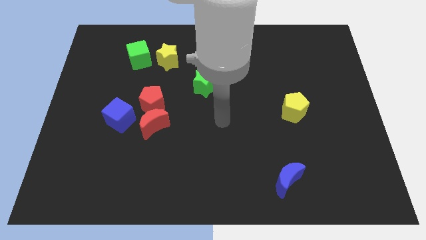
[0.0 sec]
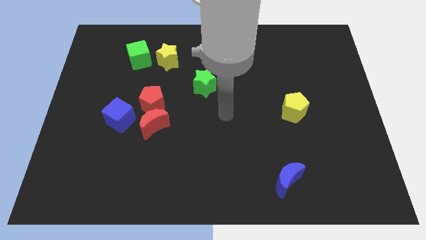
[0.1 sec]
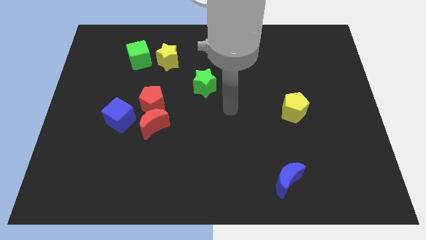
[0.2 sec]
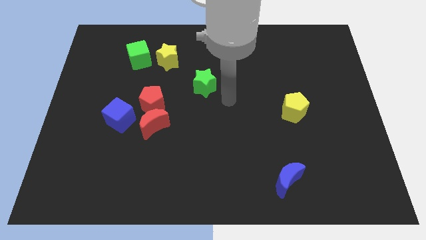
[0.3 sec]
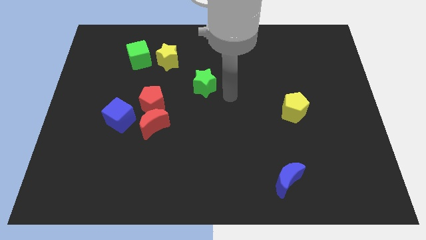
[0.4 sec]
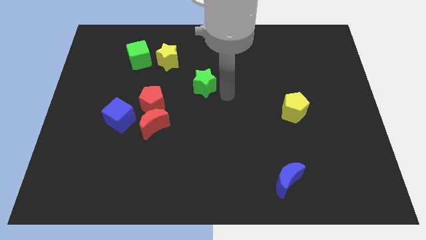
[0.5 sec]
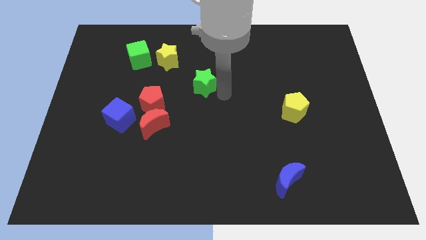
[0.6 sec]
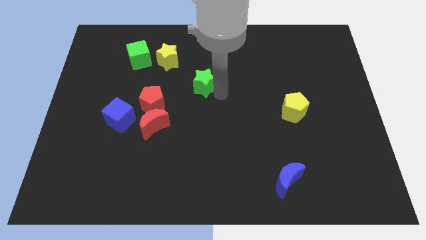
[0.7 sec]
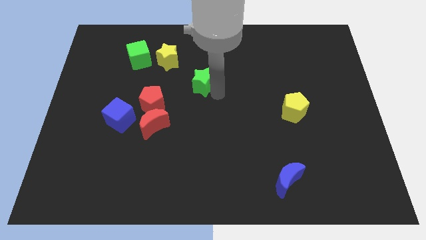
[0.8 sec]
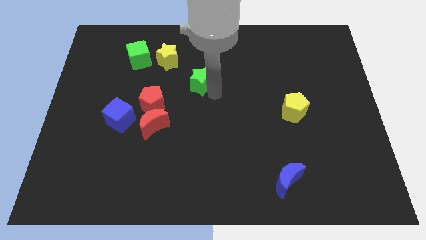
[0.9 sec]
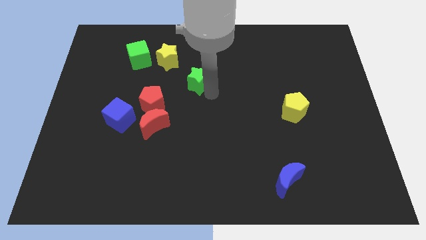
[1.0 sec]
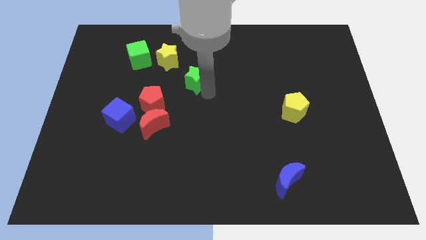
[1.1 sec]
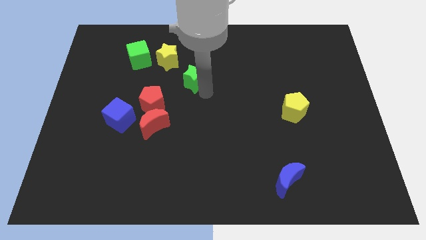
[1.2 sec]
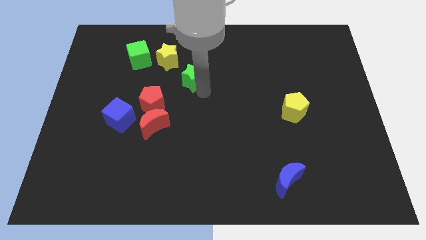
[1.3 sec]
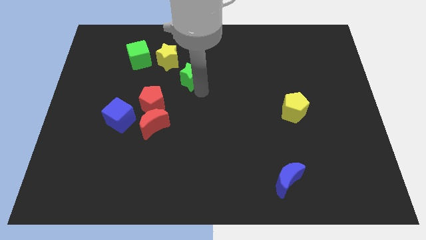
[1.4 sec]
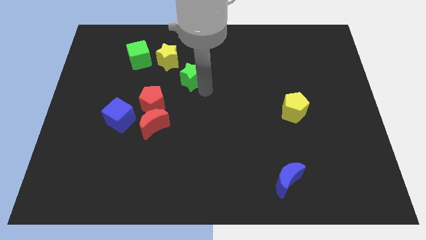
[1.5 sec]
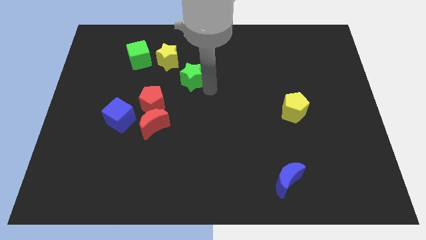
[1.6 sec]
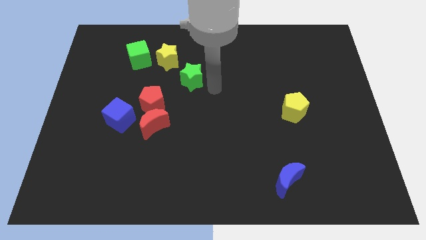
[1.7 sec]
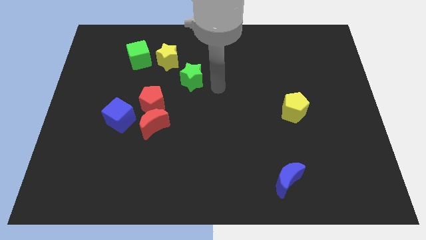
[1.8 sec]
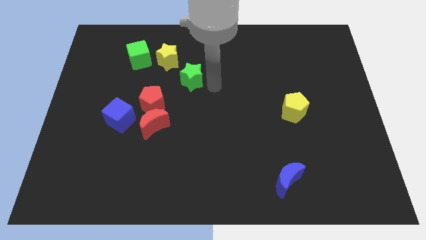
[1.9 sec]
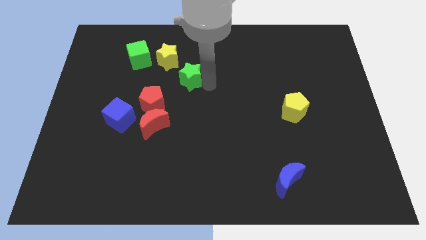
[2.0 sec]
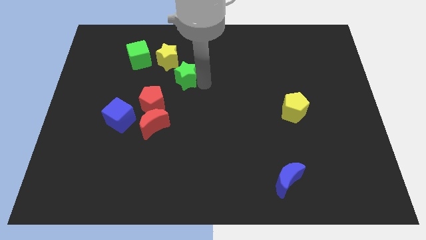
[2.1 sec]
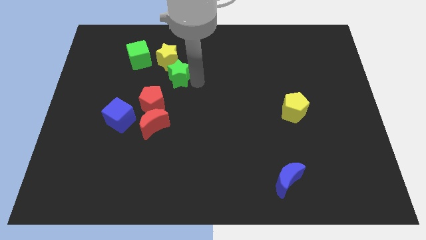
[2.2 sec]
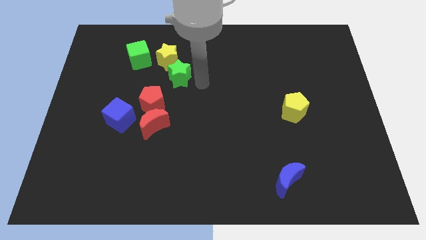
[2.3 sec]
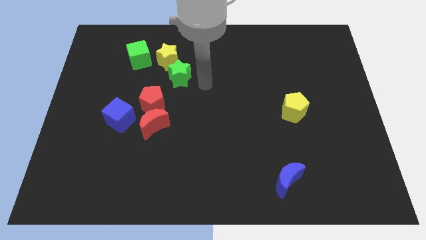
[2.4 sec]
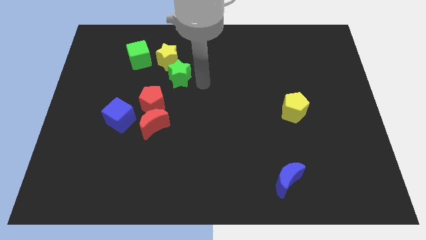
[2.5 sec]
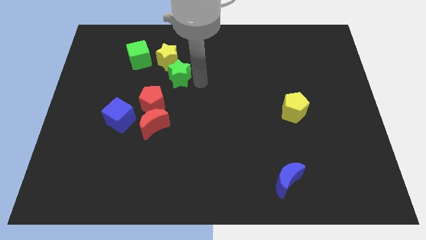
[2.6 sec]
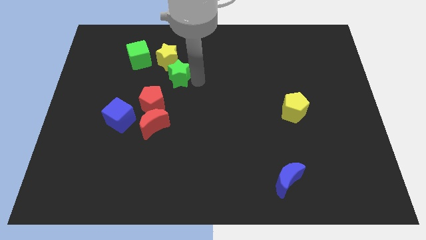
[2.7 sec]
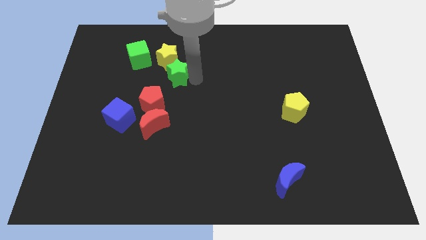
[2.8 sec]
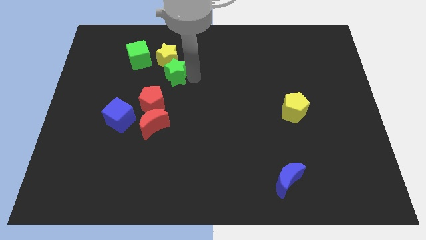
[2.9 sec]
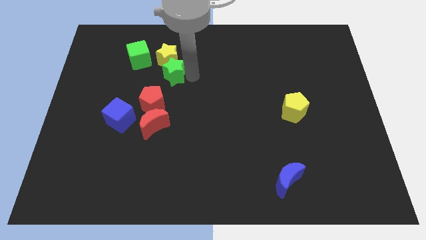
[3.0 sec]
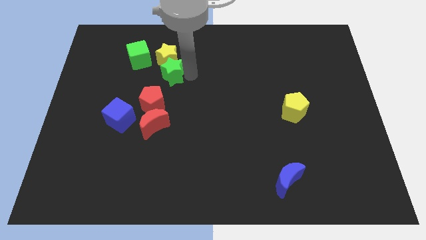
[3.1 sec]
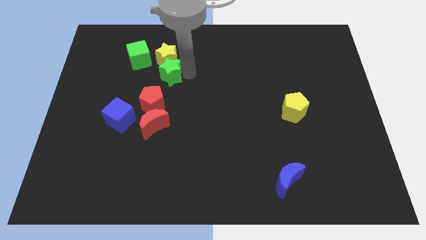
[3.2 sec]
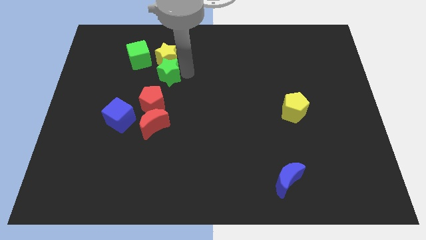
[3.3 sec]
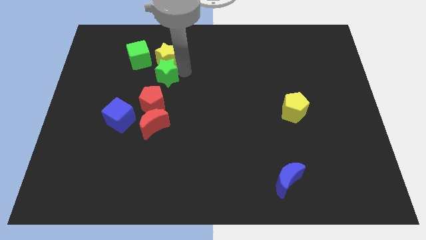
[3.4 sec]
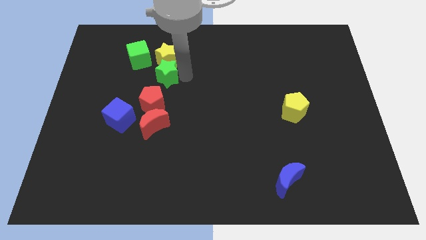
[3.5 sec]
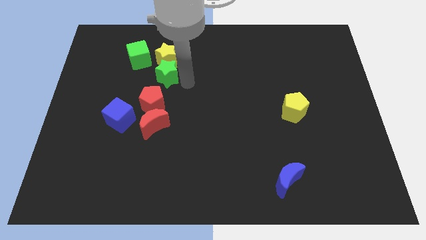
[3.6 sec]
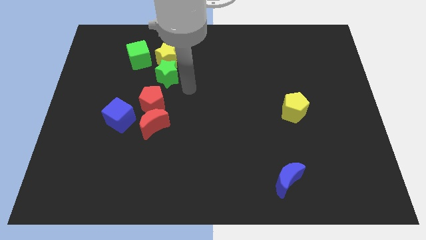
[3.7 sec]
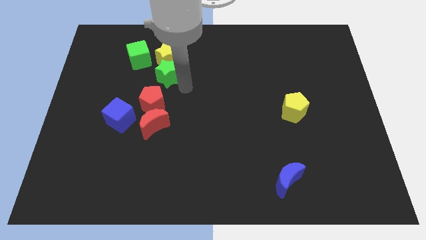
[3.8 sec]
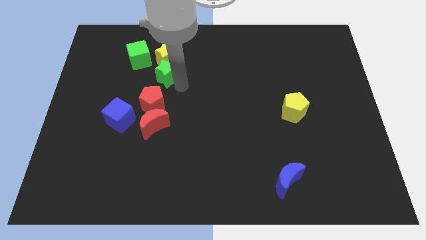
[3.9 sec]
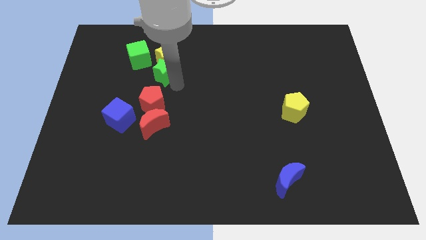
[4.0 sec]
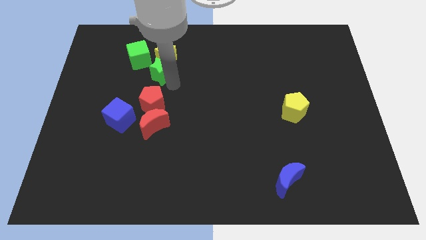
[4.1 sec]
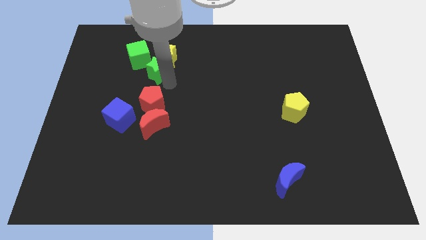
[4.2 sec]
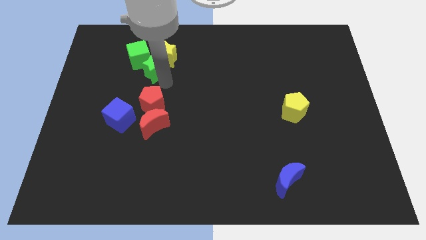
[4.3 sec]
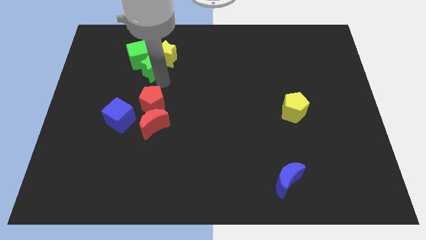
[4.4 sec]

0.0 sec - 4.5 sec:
slide the green star to the green cube

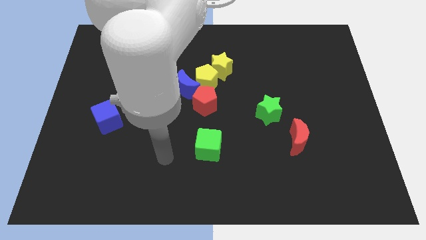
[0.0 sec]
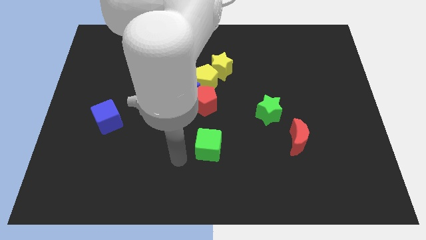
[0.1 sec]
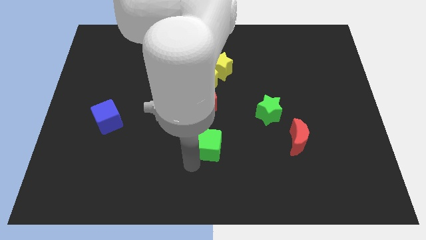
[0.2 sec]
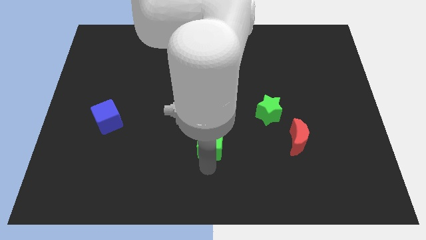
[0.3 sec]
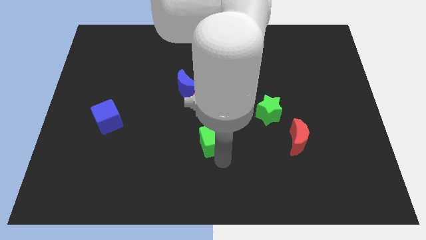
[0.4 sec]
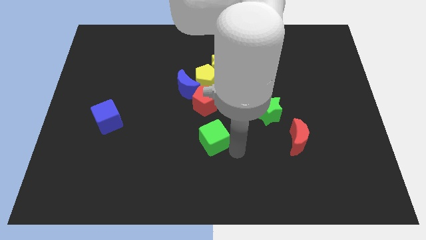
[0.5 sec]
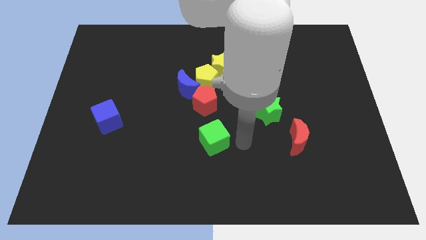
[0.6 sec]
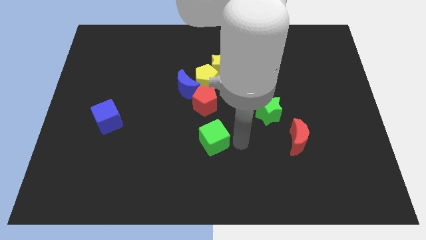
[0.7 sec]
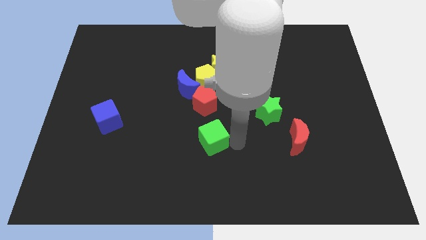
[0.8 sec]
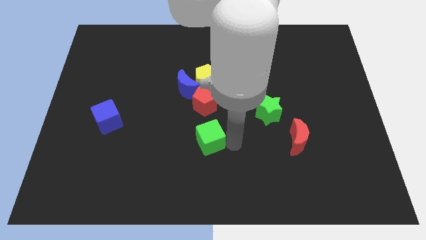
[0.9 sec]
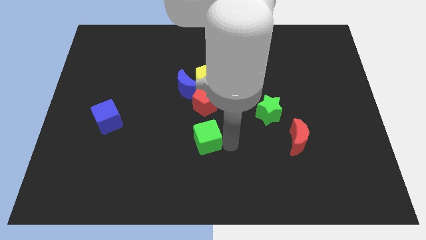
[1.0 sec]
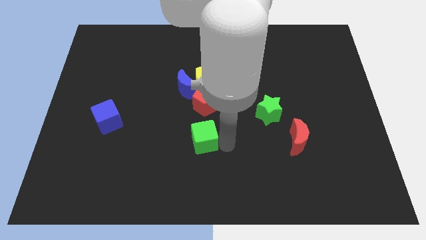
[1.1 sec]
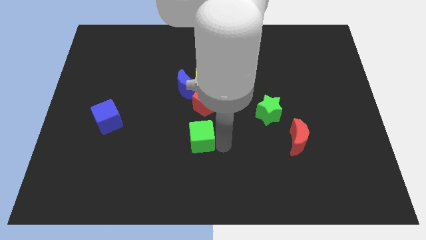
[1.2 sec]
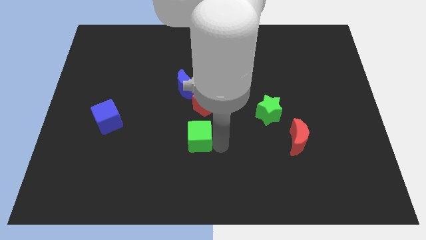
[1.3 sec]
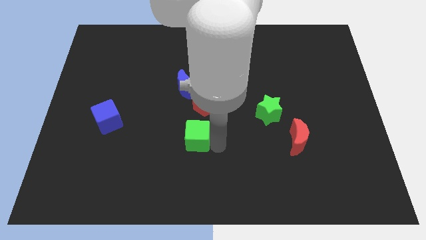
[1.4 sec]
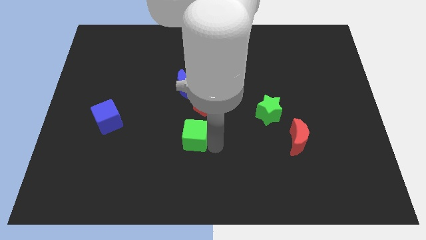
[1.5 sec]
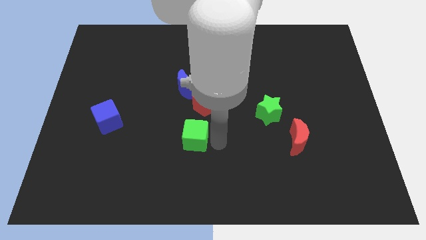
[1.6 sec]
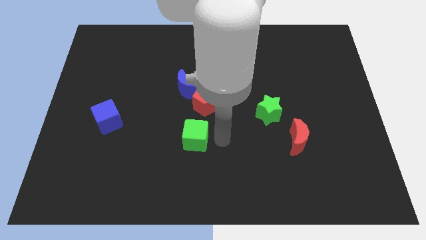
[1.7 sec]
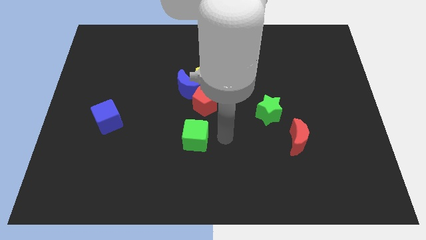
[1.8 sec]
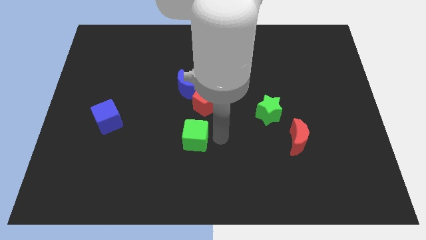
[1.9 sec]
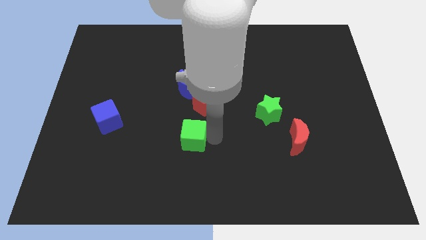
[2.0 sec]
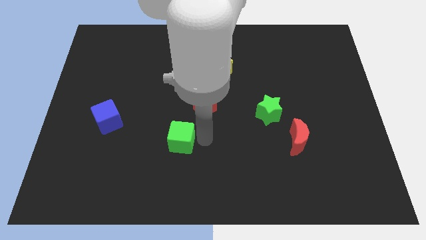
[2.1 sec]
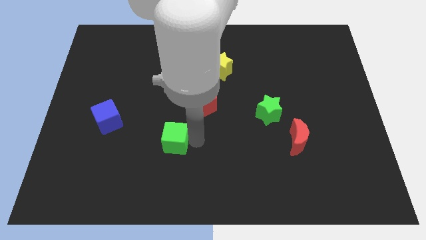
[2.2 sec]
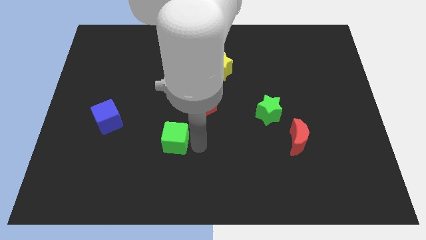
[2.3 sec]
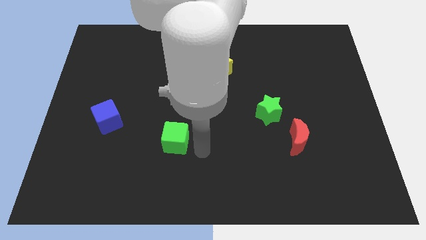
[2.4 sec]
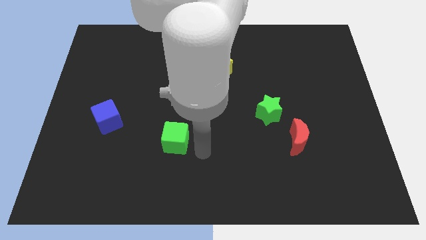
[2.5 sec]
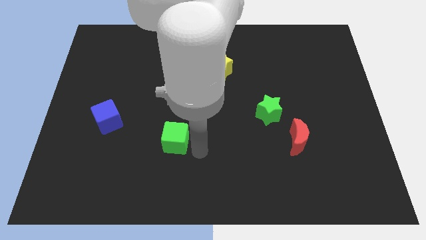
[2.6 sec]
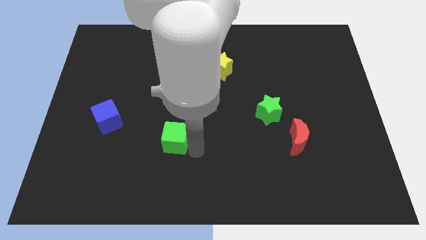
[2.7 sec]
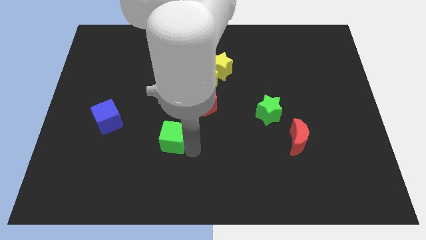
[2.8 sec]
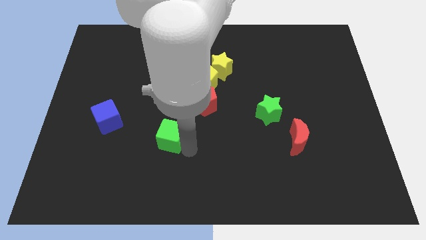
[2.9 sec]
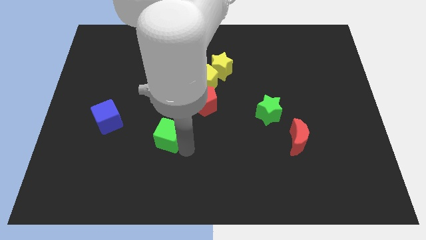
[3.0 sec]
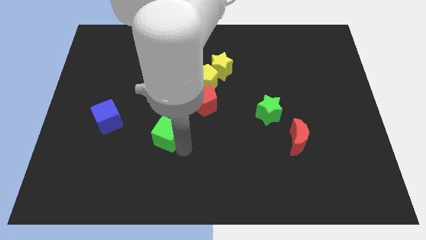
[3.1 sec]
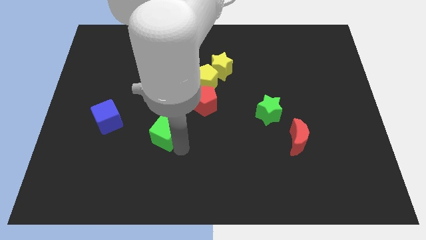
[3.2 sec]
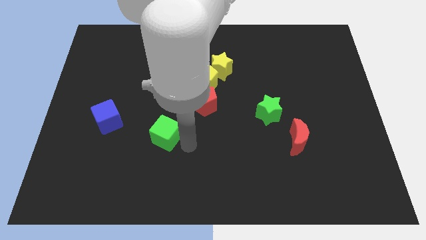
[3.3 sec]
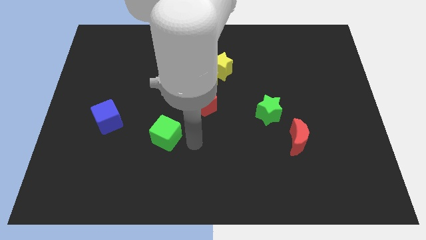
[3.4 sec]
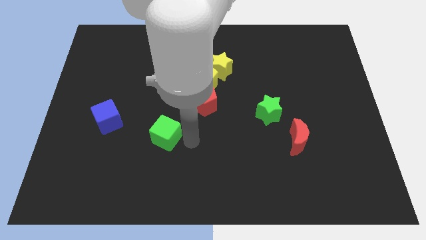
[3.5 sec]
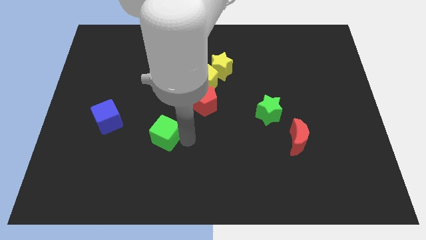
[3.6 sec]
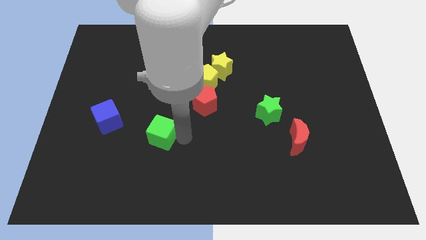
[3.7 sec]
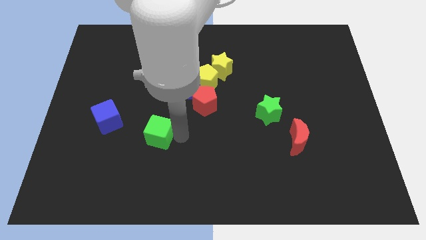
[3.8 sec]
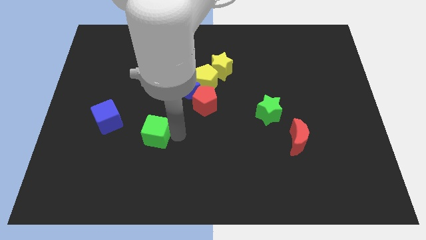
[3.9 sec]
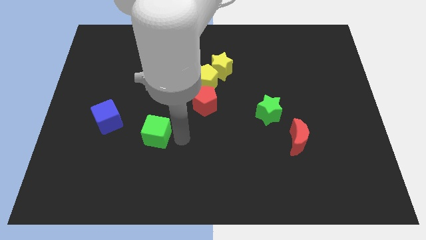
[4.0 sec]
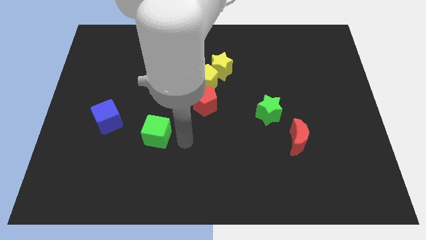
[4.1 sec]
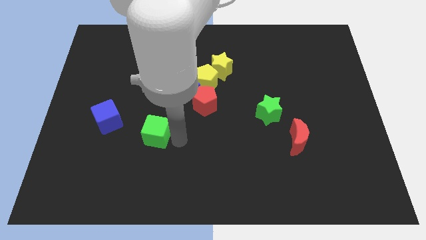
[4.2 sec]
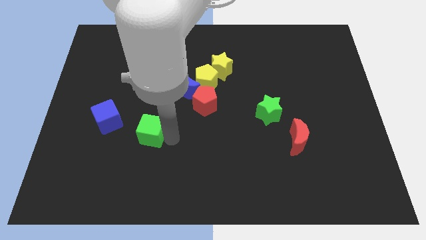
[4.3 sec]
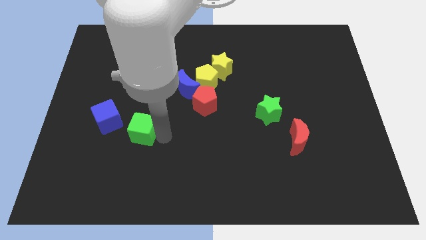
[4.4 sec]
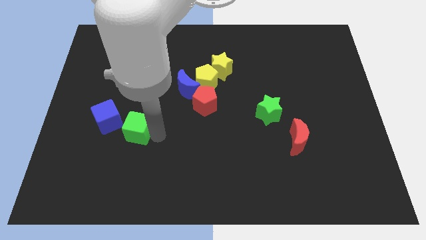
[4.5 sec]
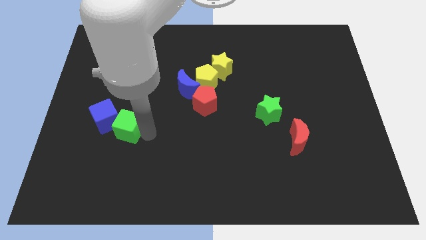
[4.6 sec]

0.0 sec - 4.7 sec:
put the green cube next to the blue cube
